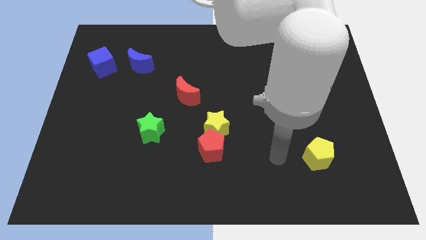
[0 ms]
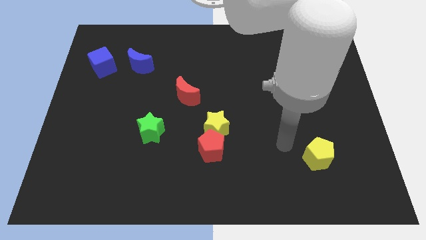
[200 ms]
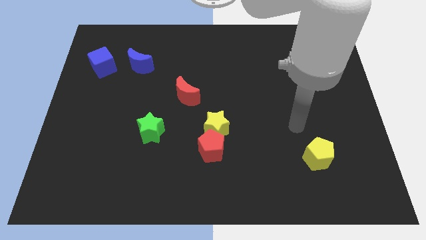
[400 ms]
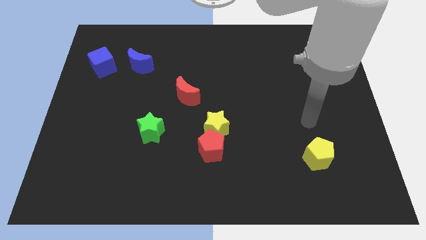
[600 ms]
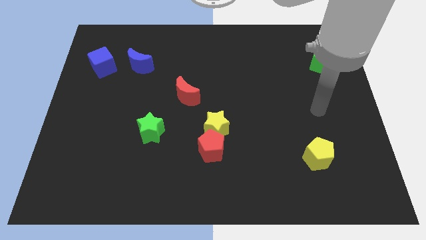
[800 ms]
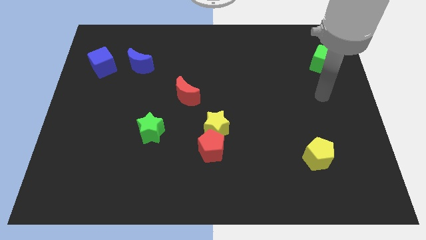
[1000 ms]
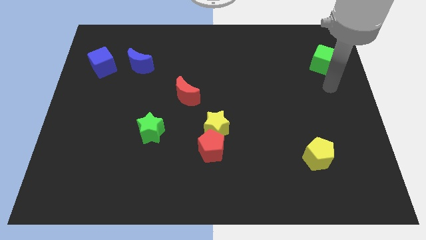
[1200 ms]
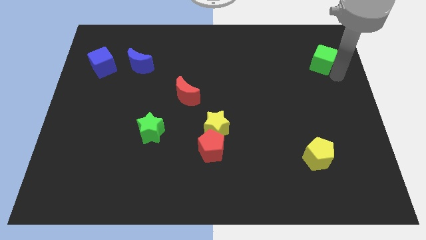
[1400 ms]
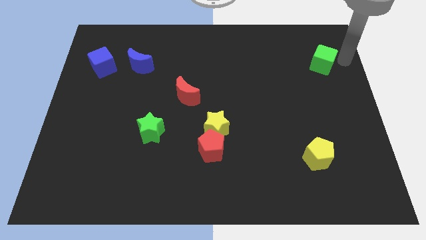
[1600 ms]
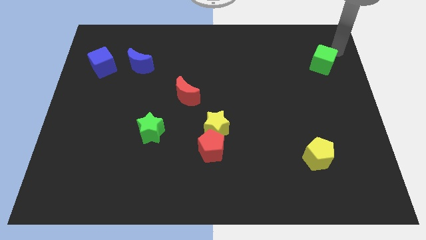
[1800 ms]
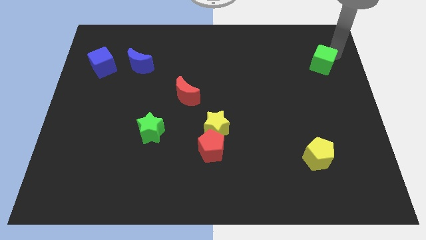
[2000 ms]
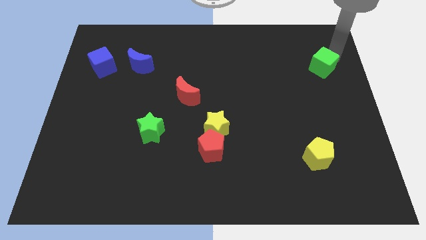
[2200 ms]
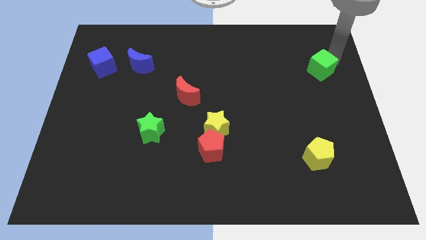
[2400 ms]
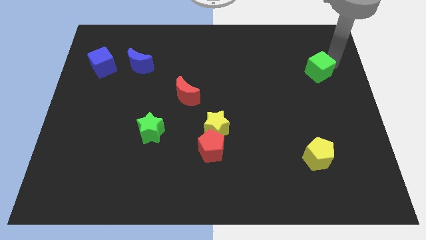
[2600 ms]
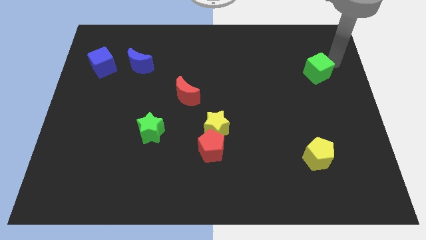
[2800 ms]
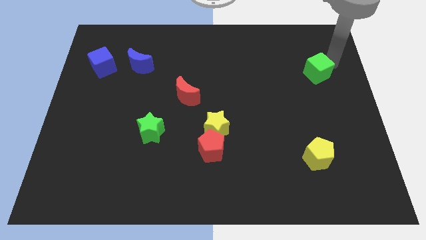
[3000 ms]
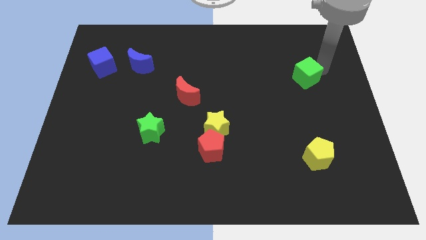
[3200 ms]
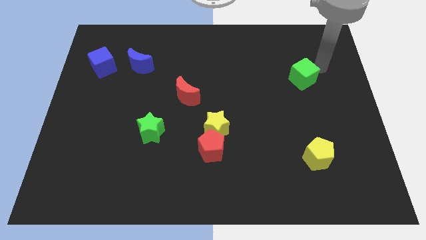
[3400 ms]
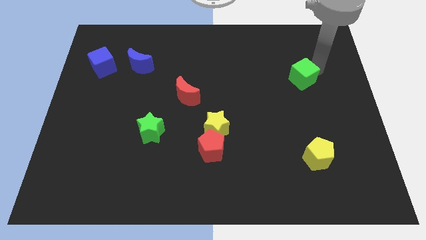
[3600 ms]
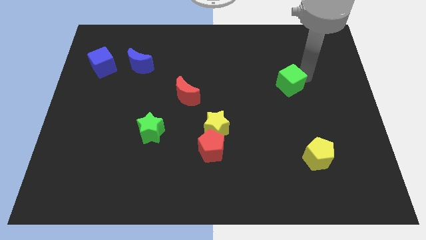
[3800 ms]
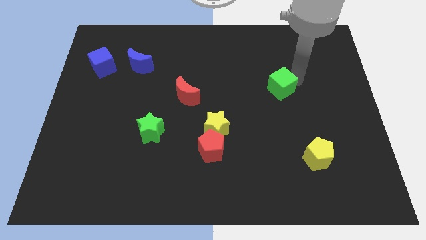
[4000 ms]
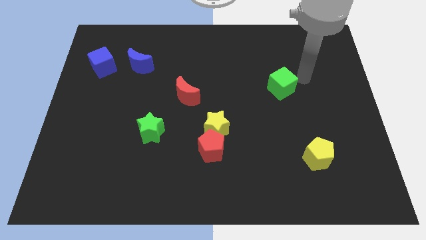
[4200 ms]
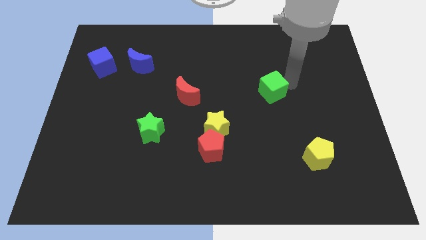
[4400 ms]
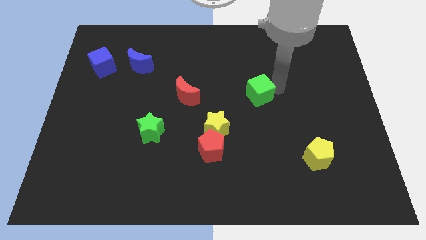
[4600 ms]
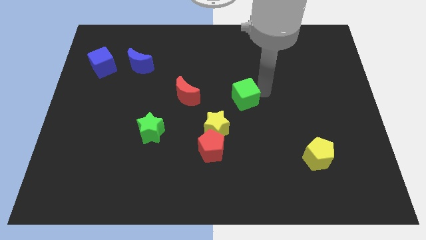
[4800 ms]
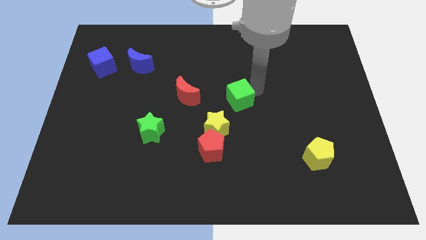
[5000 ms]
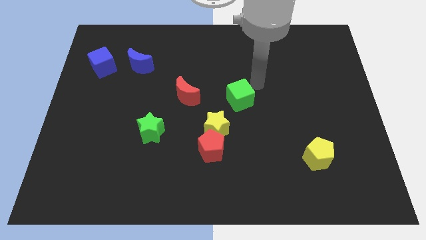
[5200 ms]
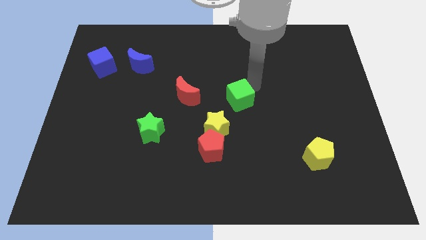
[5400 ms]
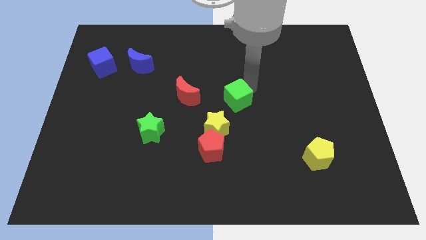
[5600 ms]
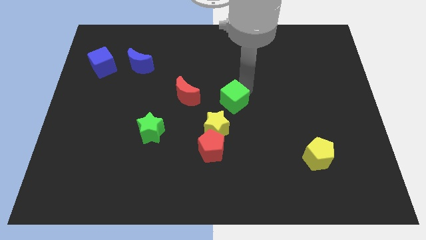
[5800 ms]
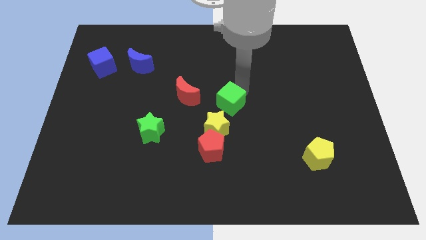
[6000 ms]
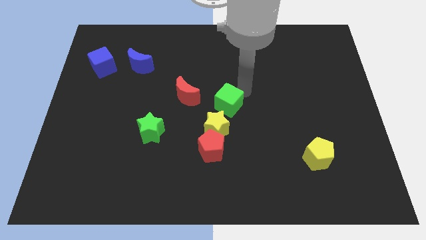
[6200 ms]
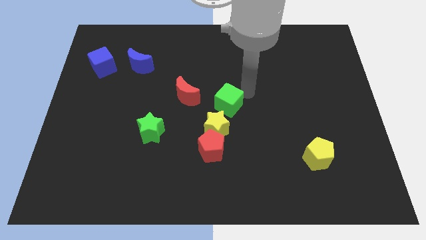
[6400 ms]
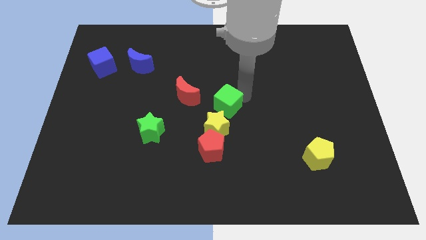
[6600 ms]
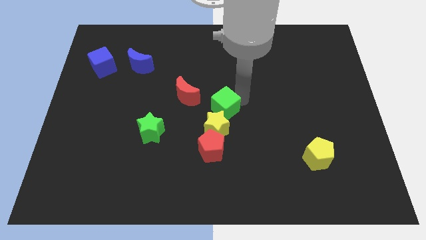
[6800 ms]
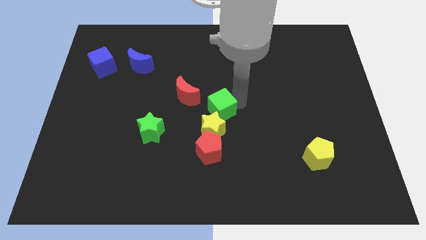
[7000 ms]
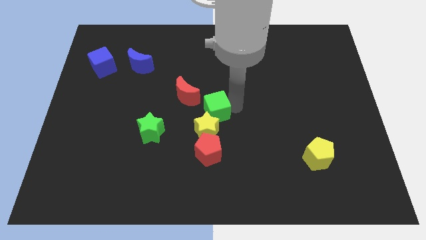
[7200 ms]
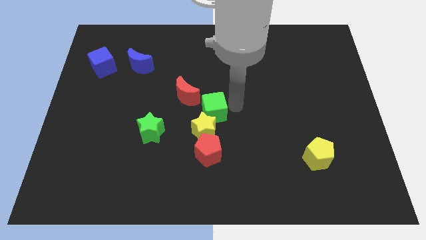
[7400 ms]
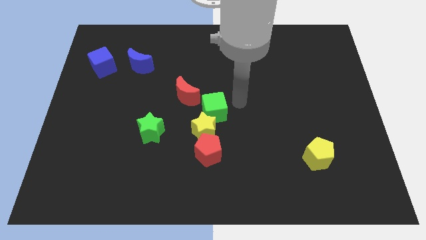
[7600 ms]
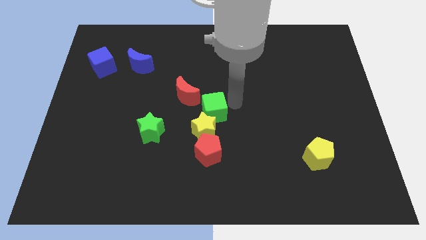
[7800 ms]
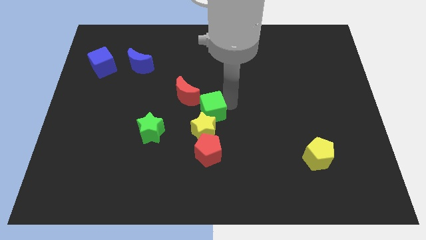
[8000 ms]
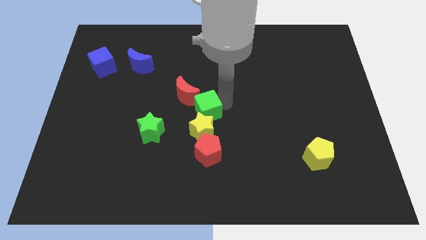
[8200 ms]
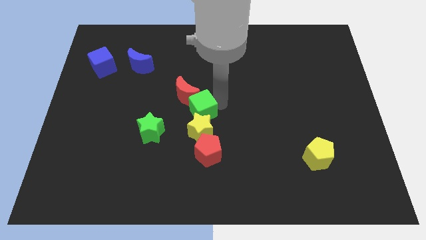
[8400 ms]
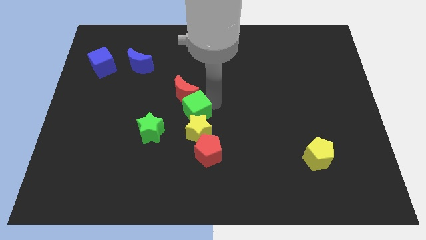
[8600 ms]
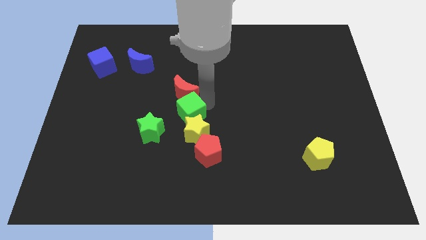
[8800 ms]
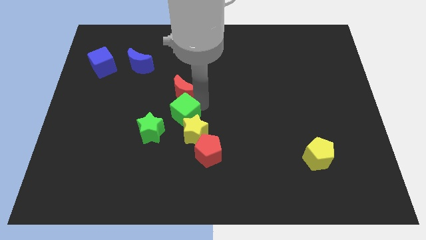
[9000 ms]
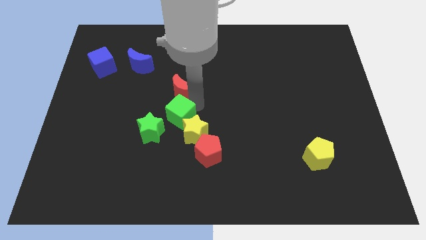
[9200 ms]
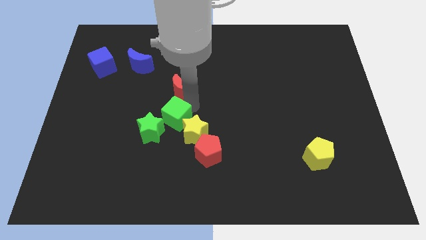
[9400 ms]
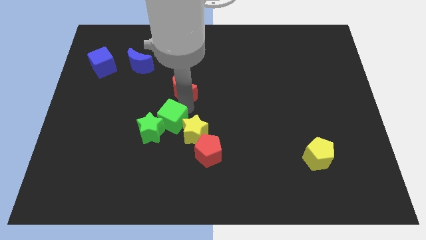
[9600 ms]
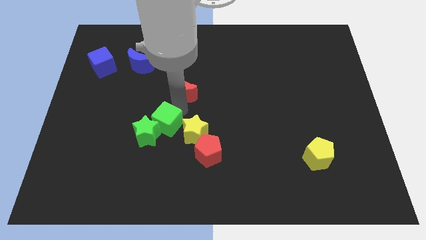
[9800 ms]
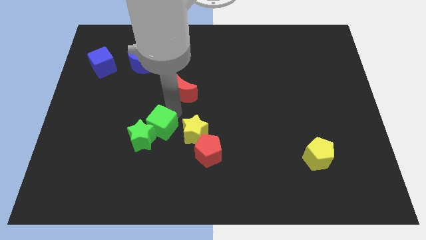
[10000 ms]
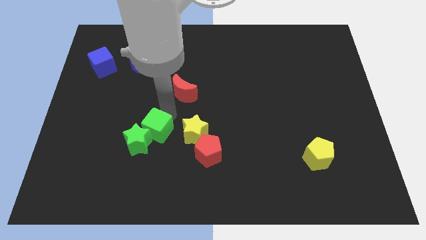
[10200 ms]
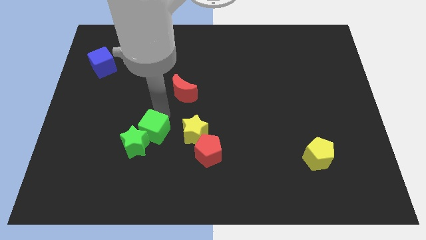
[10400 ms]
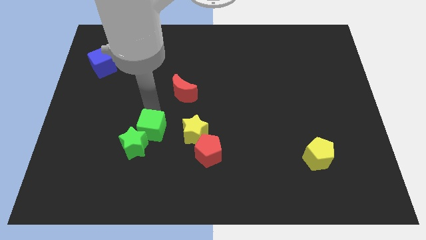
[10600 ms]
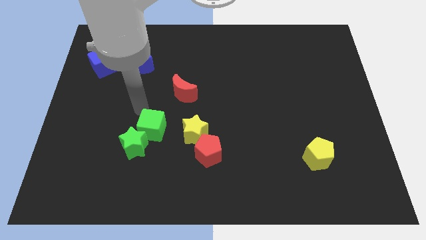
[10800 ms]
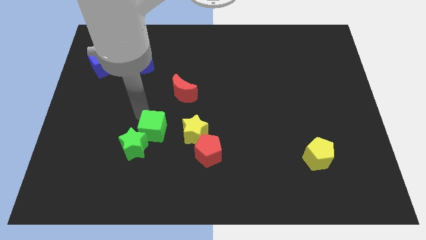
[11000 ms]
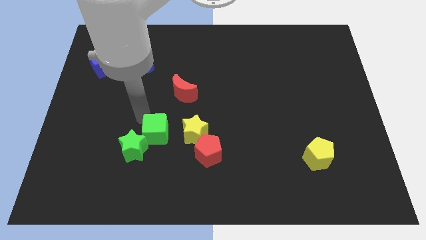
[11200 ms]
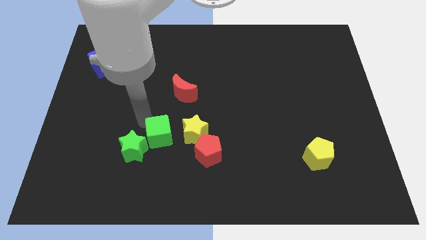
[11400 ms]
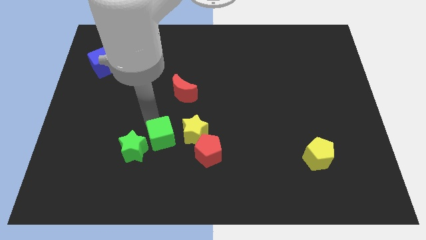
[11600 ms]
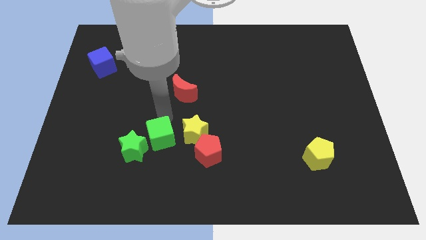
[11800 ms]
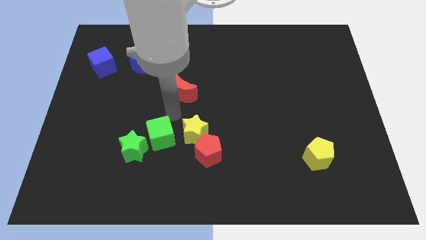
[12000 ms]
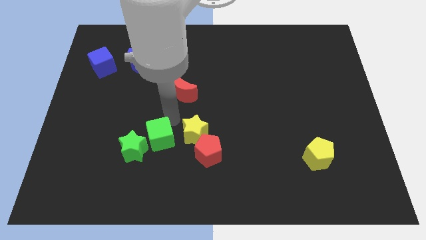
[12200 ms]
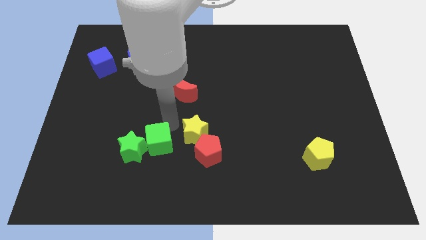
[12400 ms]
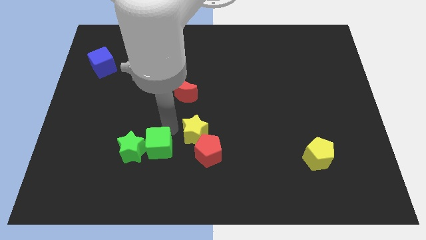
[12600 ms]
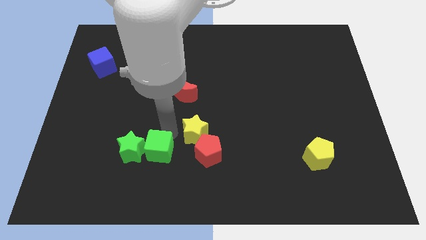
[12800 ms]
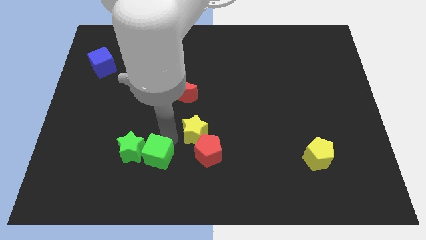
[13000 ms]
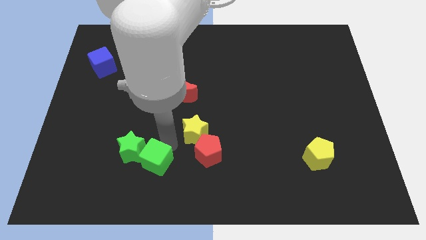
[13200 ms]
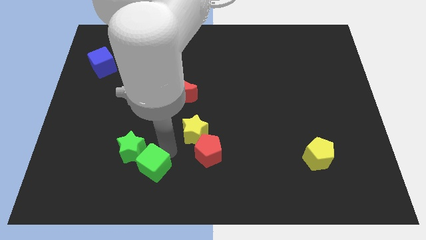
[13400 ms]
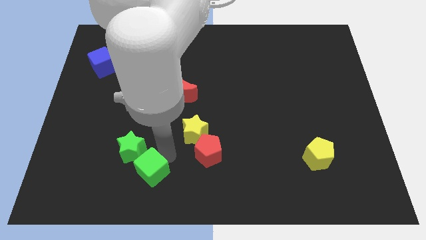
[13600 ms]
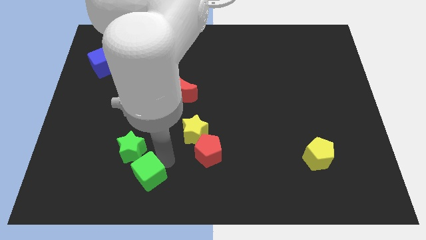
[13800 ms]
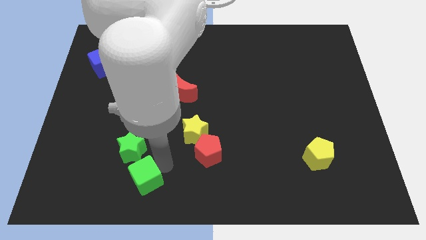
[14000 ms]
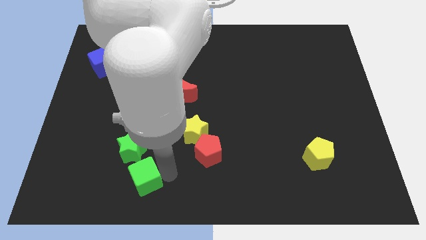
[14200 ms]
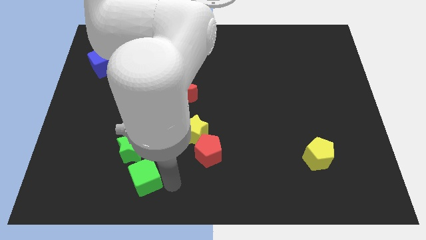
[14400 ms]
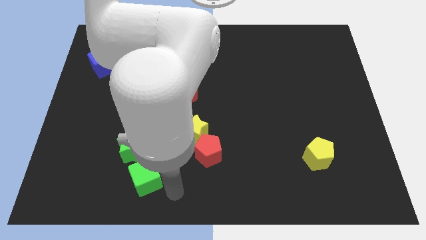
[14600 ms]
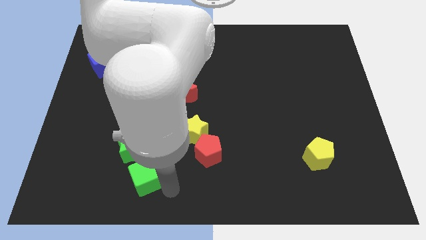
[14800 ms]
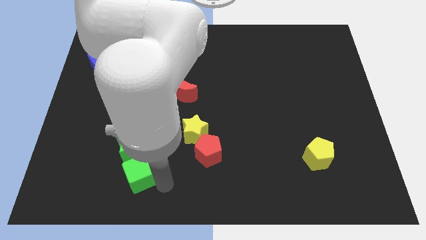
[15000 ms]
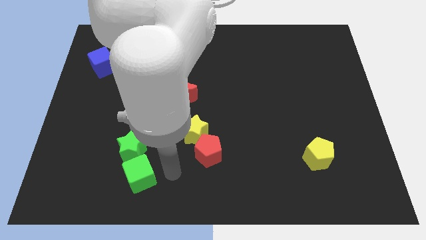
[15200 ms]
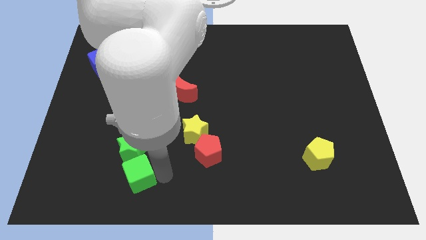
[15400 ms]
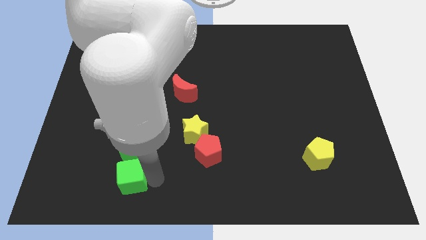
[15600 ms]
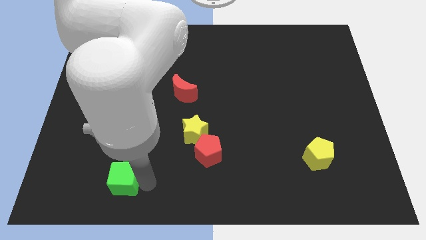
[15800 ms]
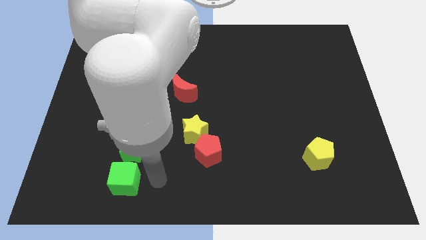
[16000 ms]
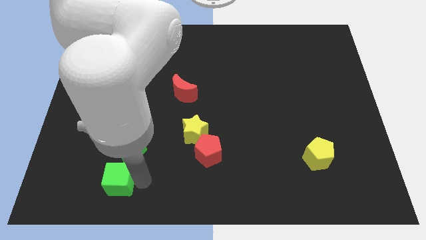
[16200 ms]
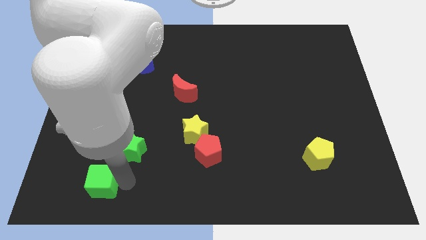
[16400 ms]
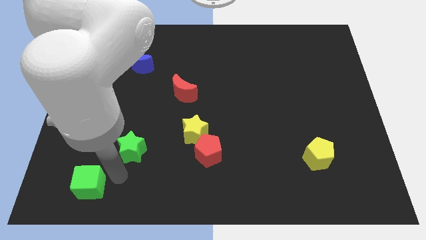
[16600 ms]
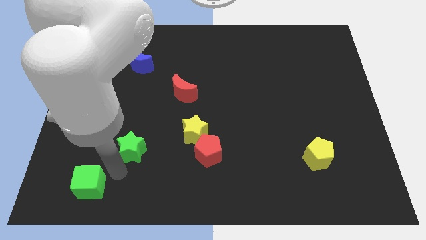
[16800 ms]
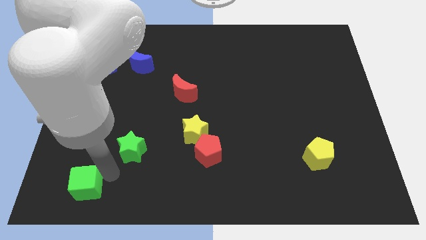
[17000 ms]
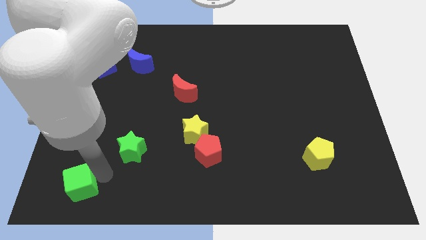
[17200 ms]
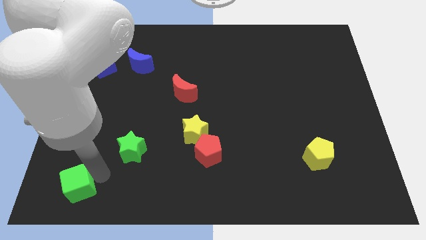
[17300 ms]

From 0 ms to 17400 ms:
push the green cube to the bottom left
